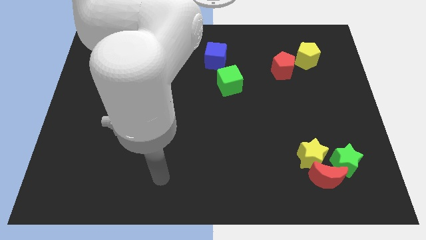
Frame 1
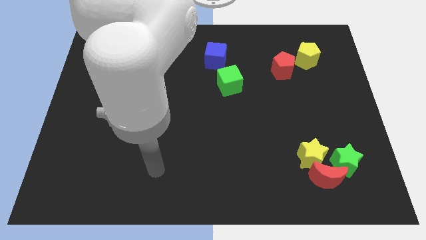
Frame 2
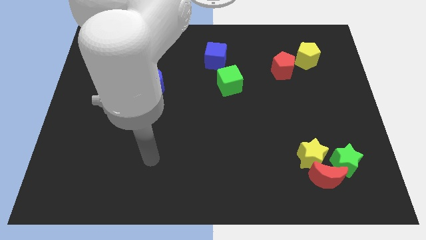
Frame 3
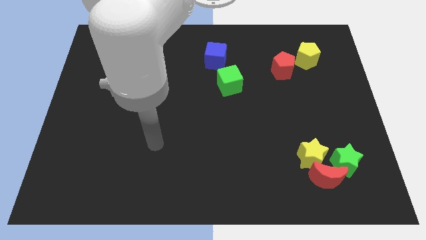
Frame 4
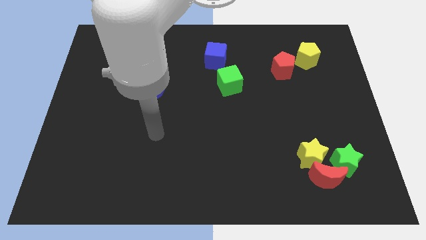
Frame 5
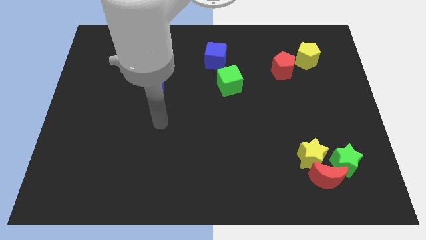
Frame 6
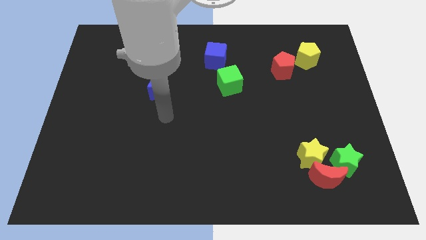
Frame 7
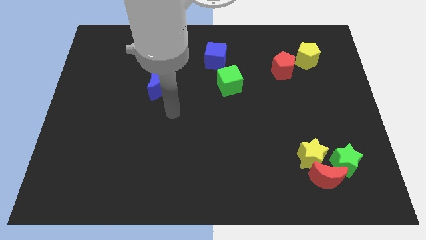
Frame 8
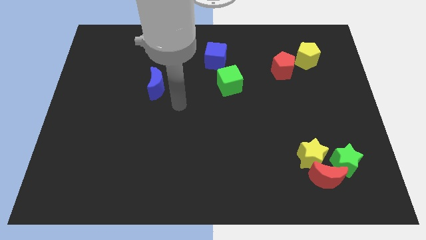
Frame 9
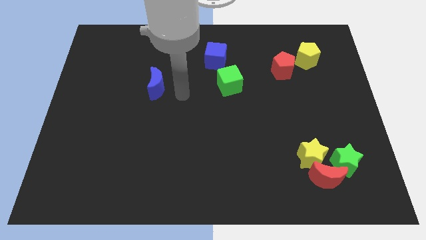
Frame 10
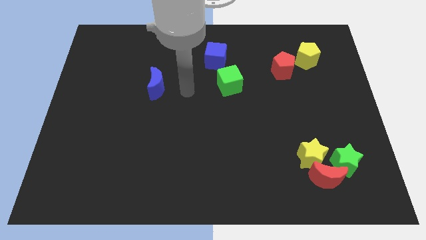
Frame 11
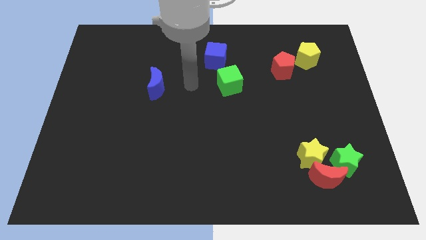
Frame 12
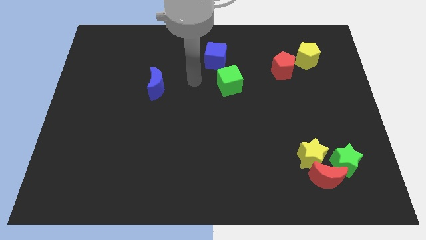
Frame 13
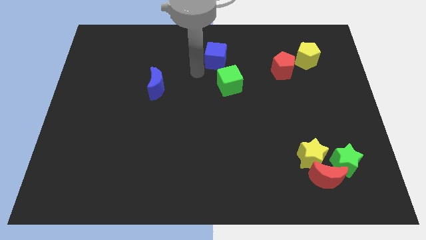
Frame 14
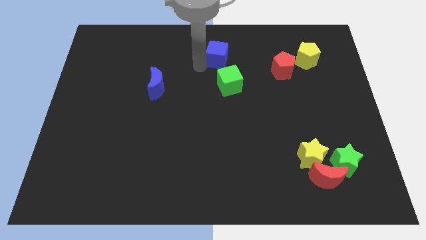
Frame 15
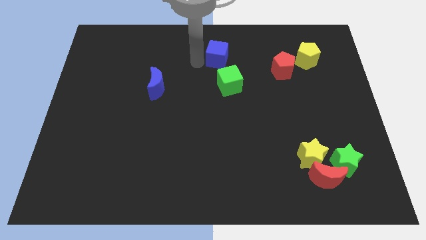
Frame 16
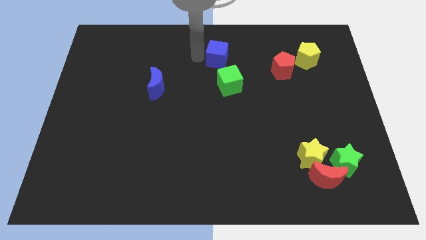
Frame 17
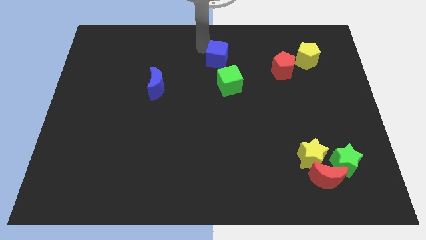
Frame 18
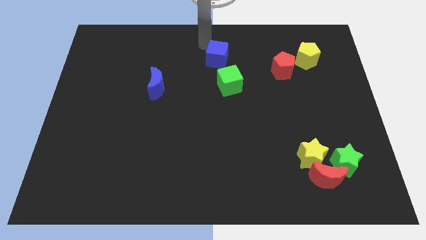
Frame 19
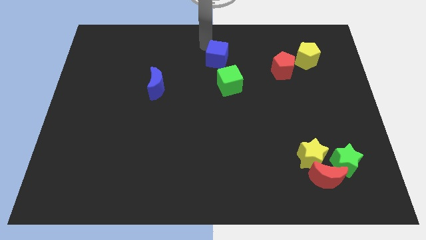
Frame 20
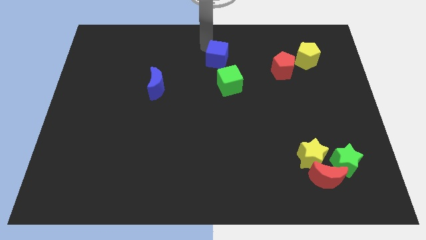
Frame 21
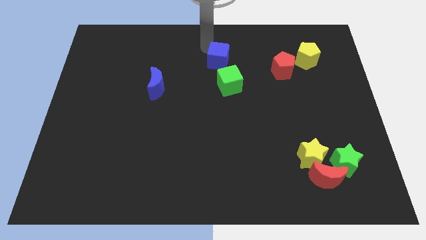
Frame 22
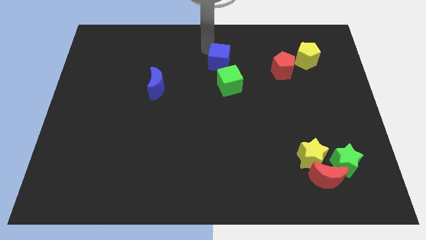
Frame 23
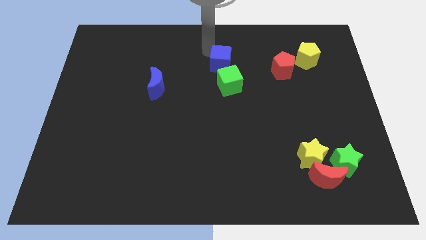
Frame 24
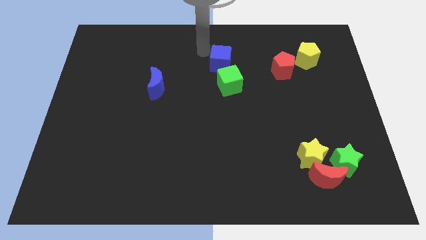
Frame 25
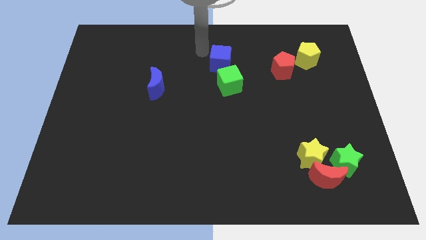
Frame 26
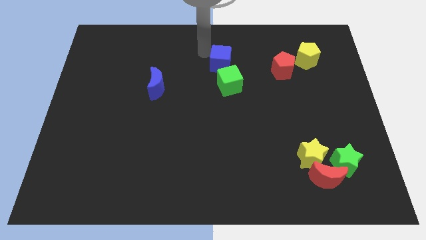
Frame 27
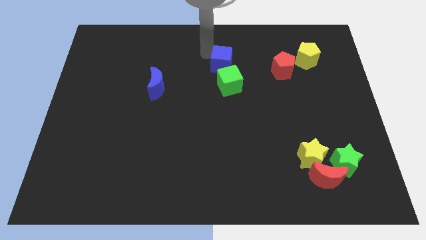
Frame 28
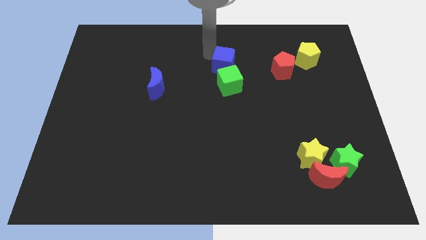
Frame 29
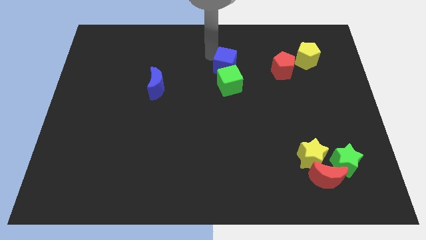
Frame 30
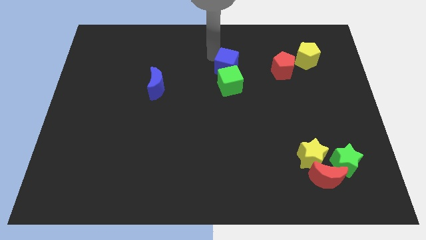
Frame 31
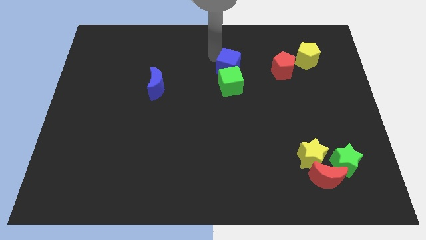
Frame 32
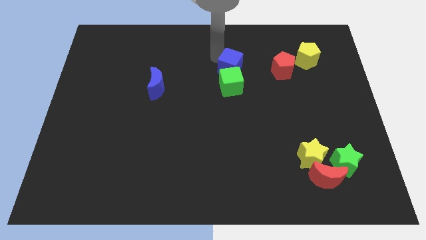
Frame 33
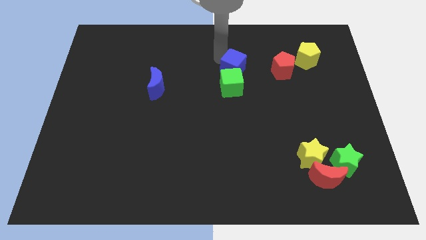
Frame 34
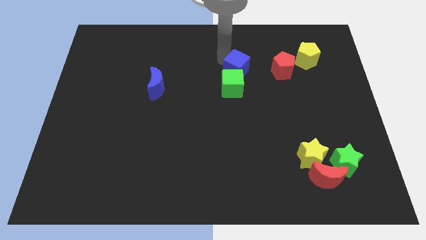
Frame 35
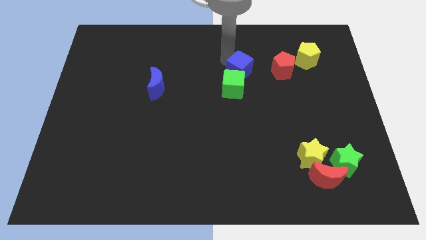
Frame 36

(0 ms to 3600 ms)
move the blue cube downwards and to the right a bit

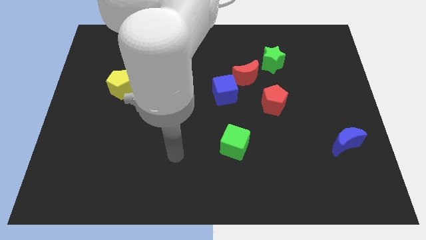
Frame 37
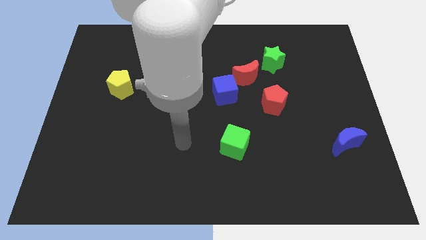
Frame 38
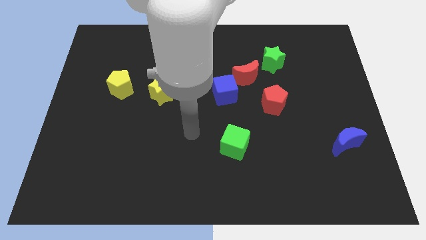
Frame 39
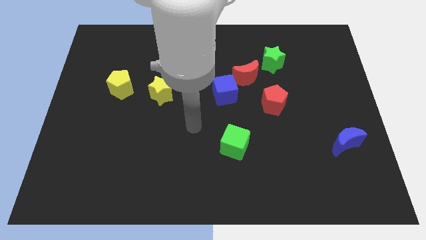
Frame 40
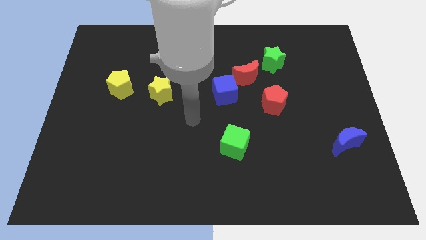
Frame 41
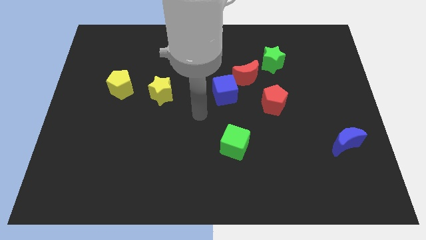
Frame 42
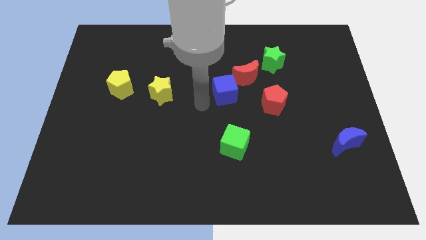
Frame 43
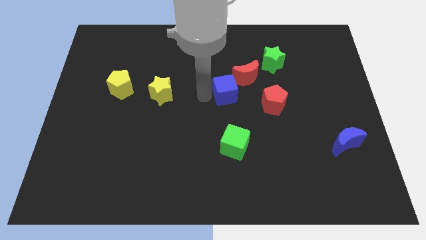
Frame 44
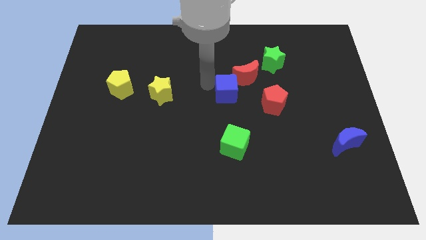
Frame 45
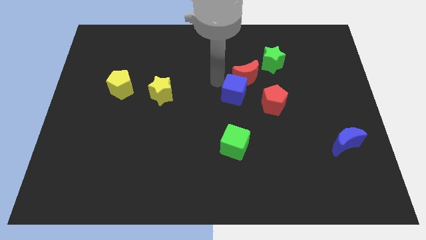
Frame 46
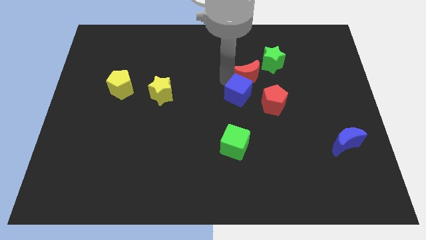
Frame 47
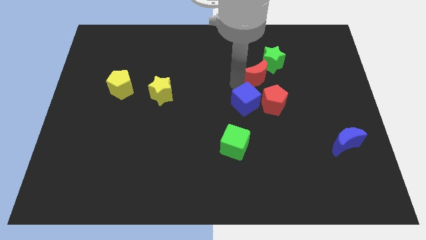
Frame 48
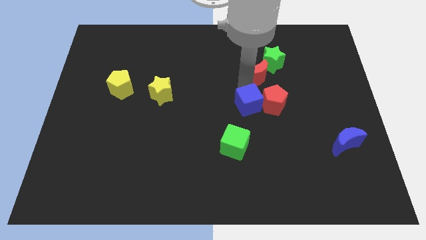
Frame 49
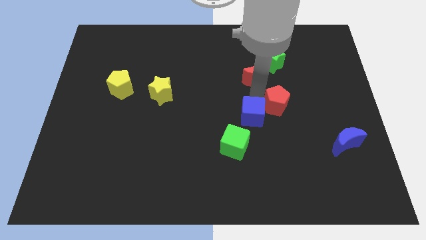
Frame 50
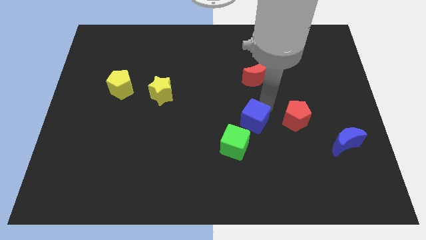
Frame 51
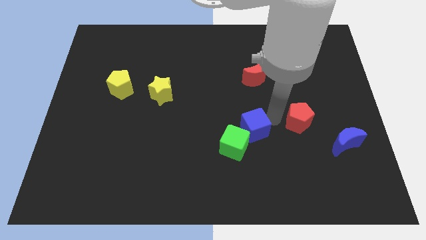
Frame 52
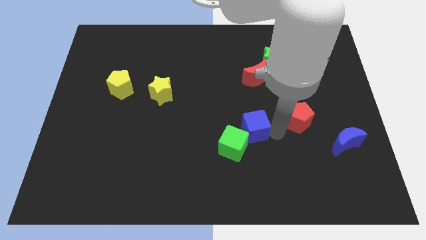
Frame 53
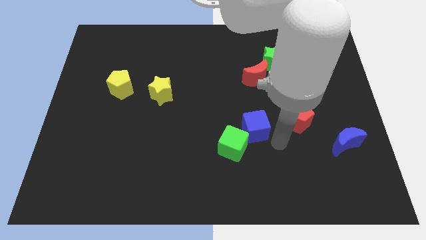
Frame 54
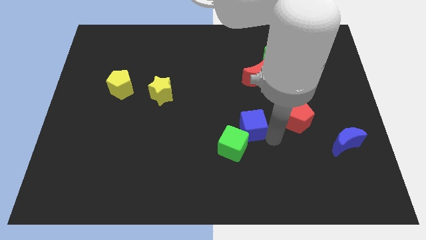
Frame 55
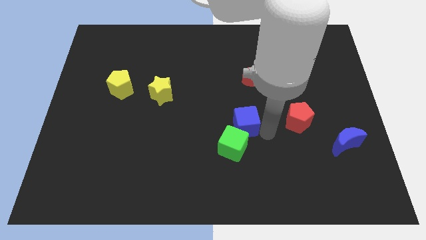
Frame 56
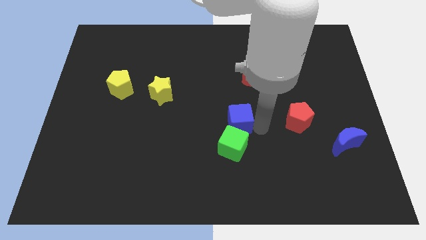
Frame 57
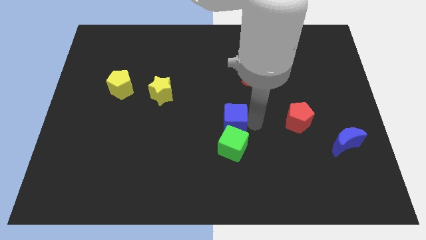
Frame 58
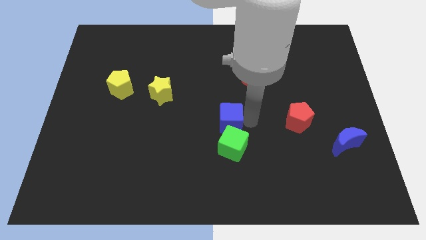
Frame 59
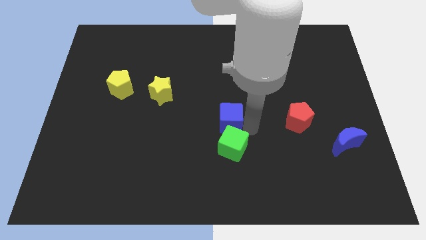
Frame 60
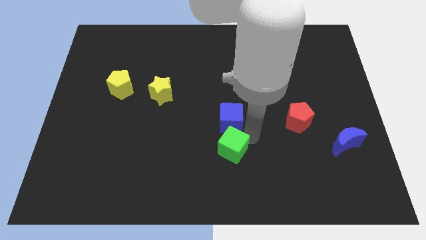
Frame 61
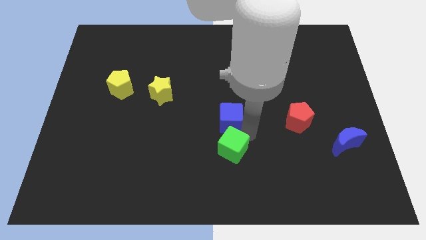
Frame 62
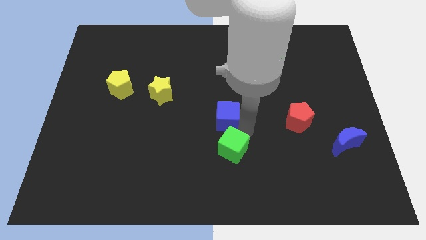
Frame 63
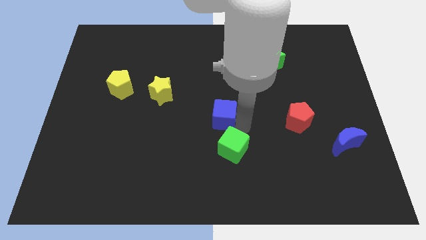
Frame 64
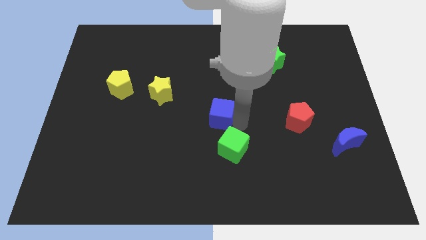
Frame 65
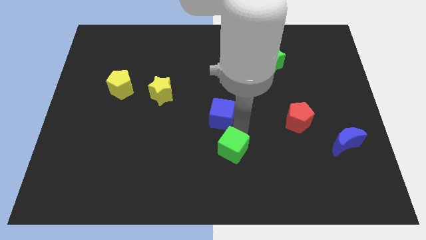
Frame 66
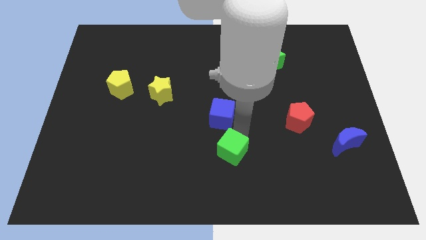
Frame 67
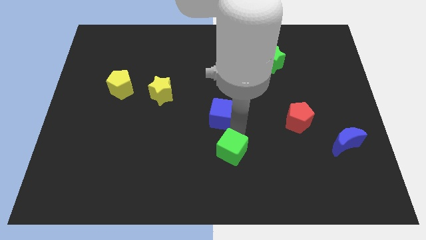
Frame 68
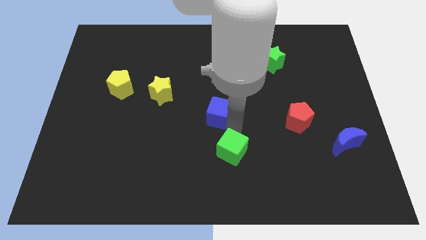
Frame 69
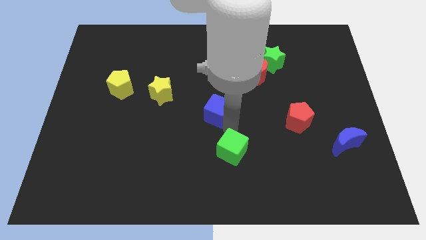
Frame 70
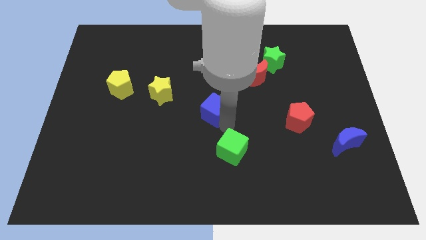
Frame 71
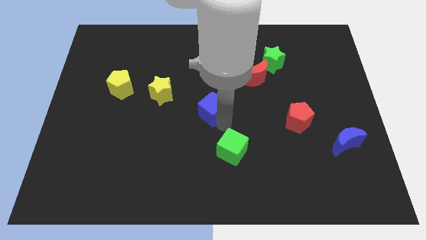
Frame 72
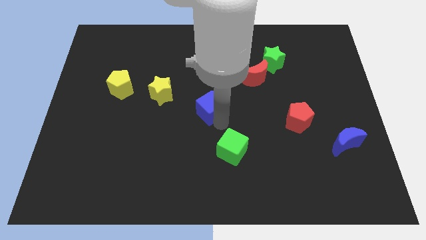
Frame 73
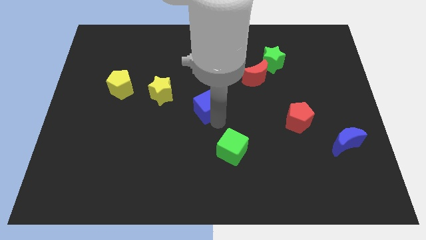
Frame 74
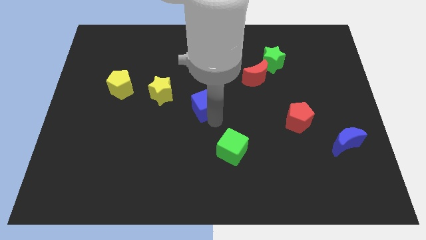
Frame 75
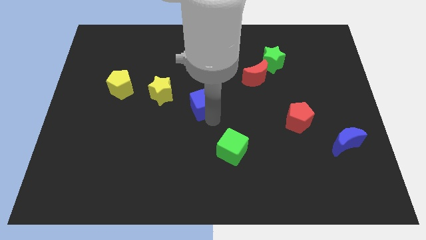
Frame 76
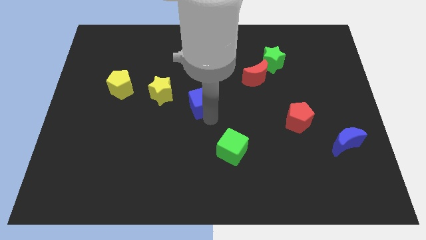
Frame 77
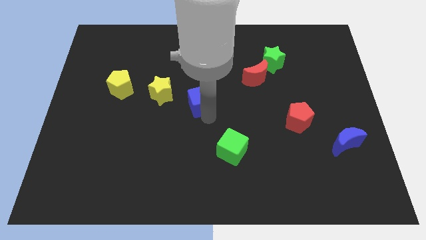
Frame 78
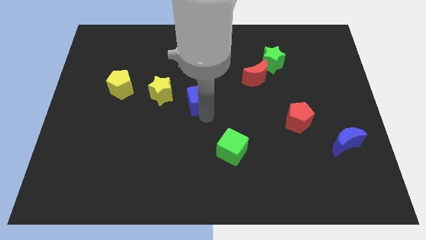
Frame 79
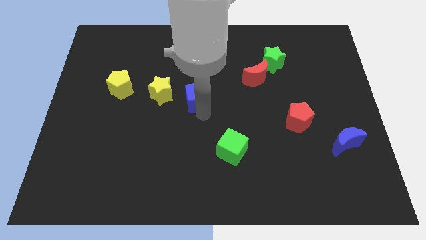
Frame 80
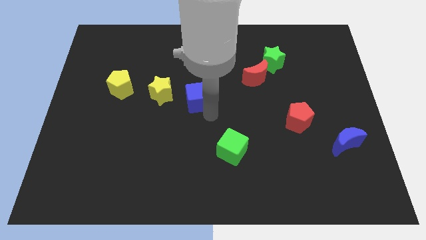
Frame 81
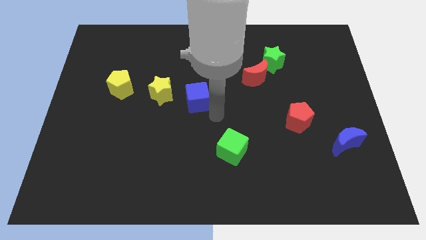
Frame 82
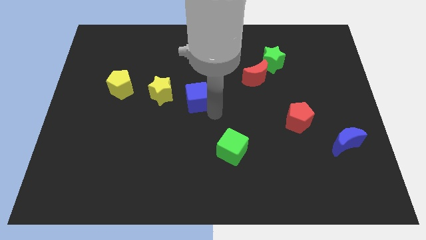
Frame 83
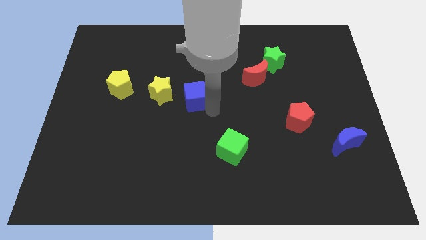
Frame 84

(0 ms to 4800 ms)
move the blue cube left a bit
